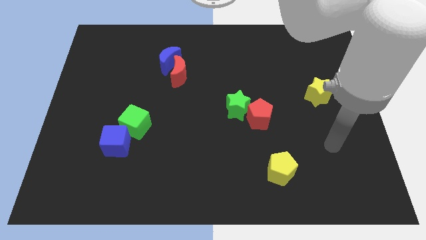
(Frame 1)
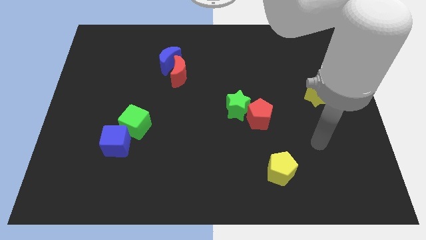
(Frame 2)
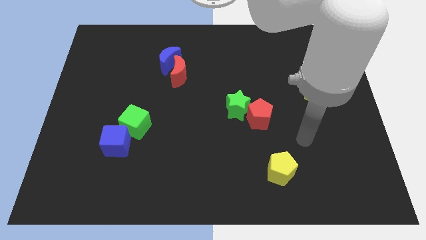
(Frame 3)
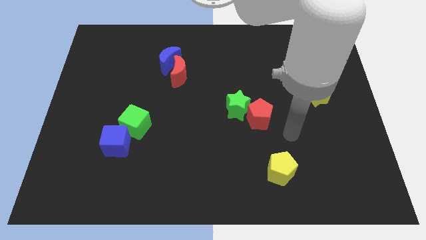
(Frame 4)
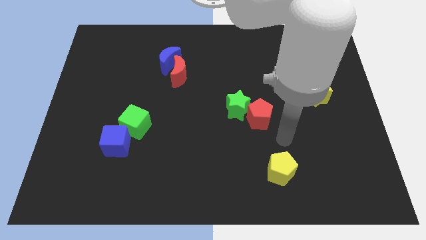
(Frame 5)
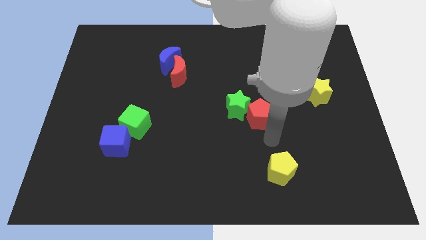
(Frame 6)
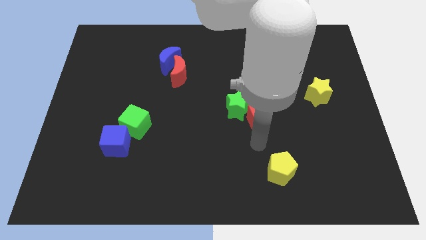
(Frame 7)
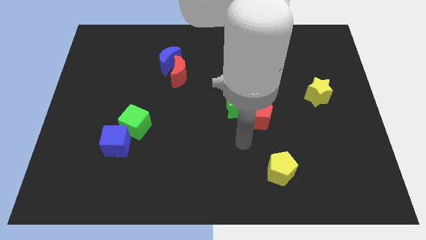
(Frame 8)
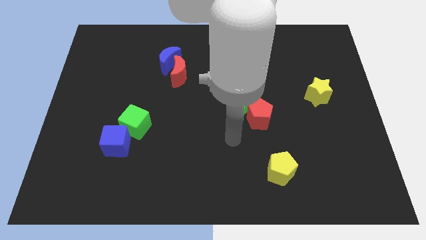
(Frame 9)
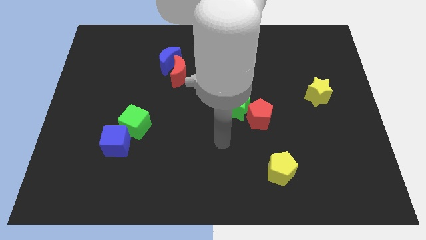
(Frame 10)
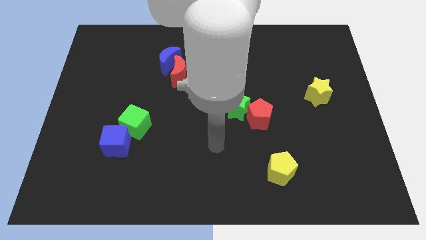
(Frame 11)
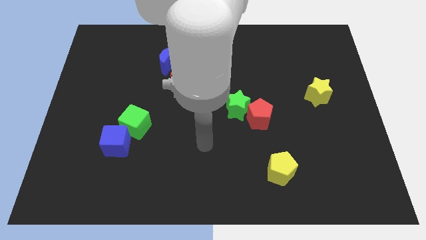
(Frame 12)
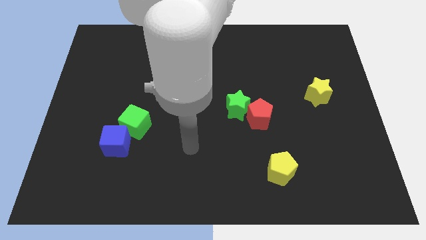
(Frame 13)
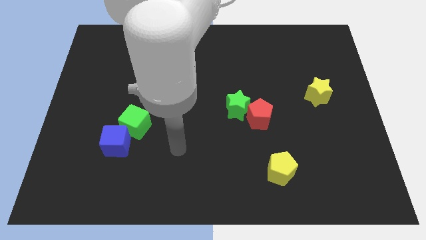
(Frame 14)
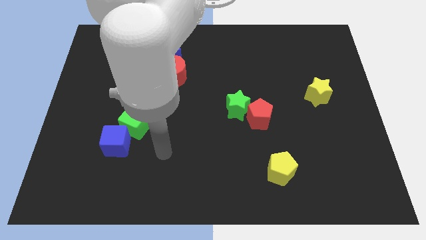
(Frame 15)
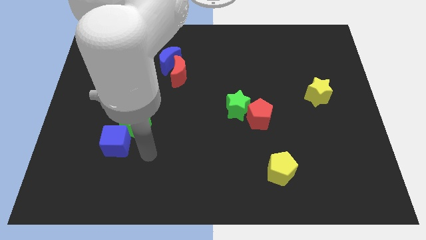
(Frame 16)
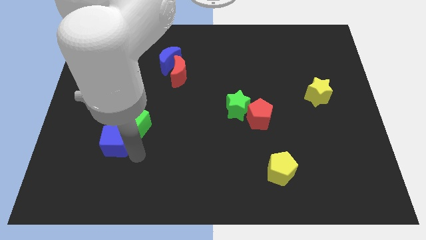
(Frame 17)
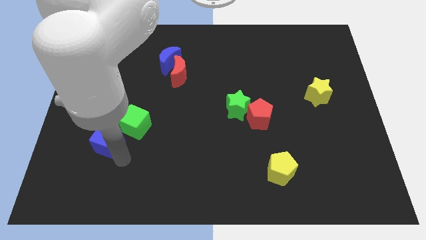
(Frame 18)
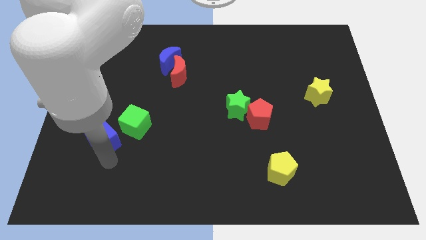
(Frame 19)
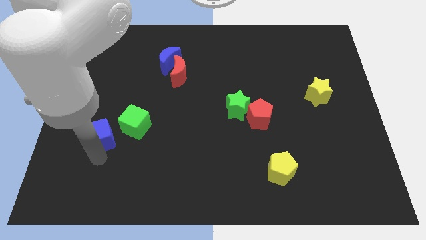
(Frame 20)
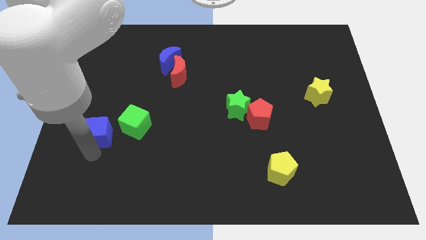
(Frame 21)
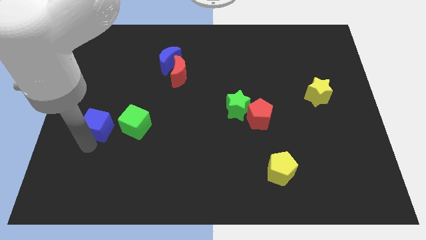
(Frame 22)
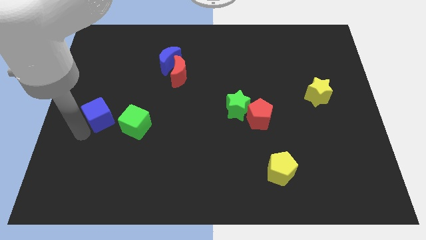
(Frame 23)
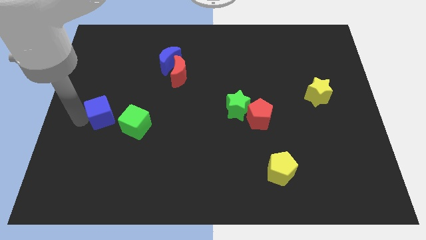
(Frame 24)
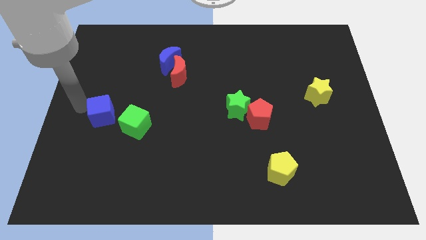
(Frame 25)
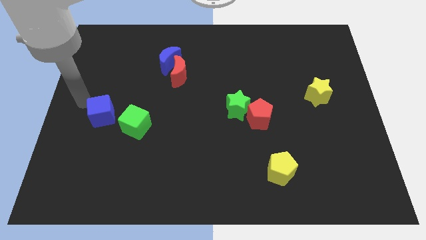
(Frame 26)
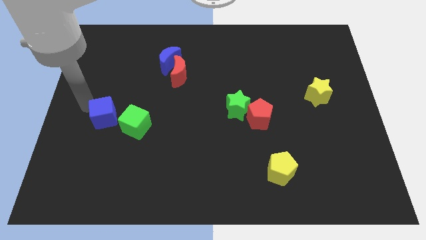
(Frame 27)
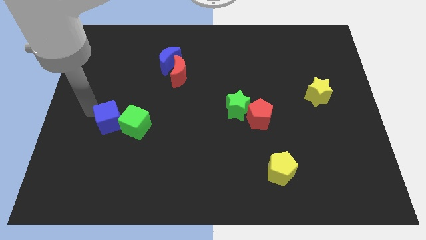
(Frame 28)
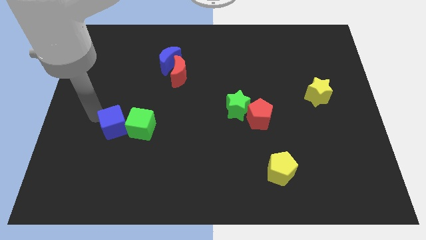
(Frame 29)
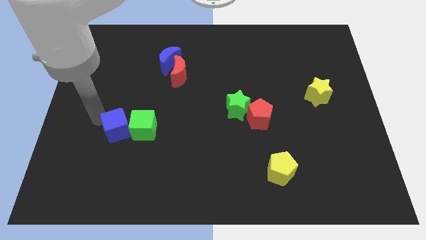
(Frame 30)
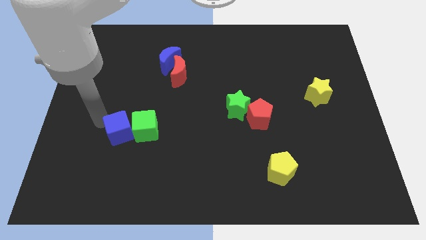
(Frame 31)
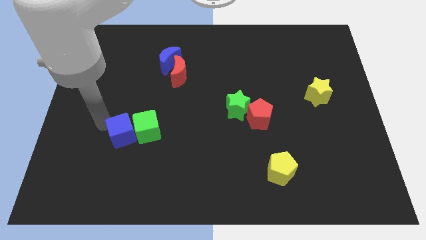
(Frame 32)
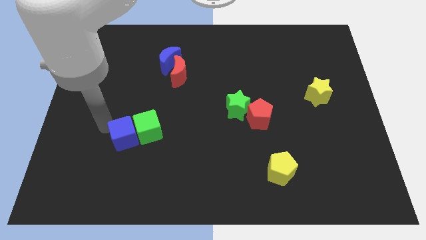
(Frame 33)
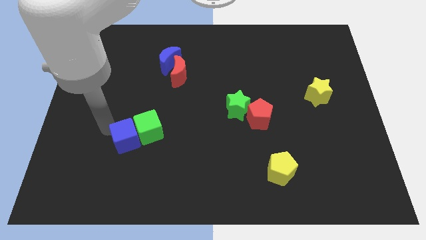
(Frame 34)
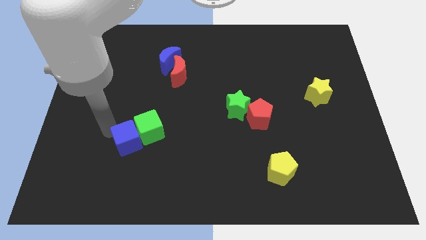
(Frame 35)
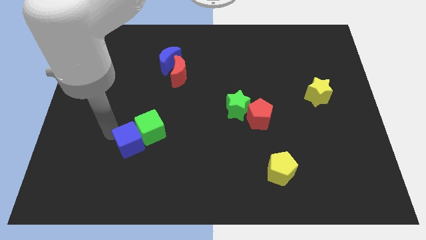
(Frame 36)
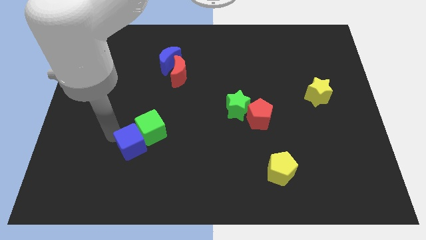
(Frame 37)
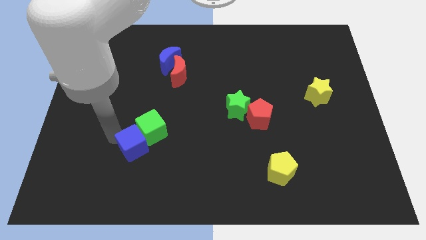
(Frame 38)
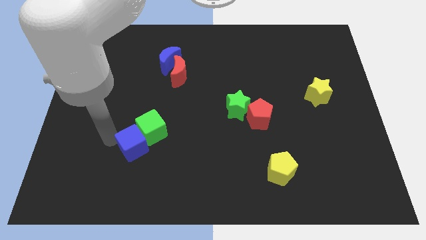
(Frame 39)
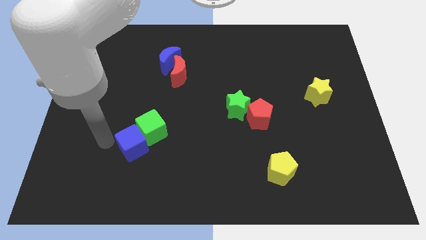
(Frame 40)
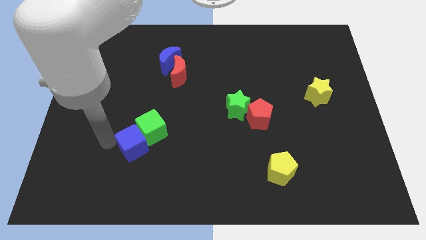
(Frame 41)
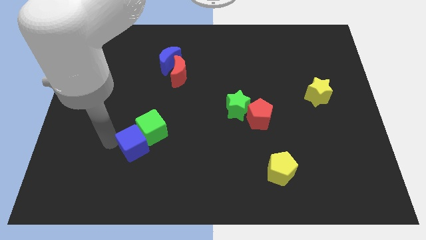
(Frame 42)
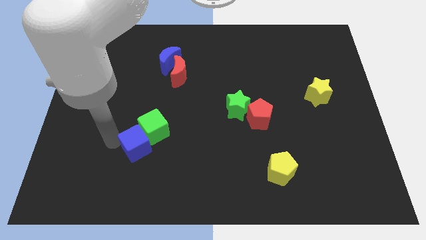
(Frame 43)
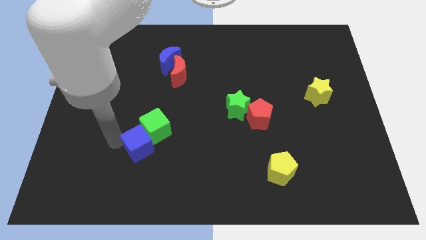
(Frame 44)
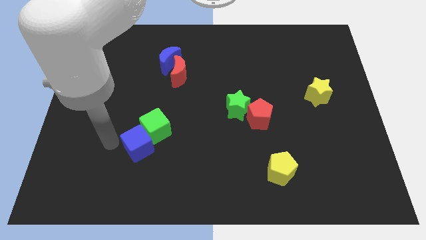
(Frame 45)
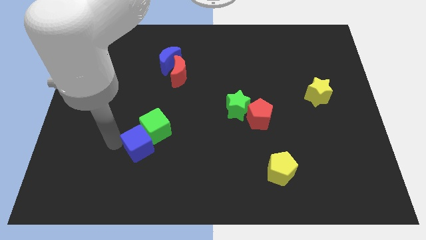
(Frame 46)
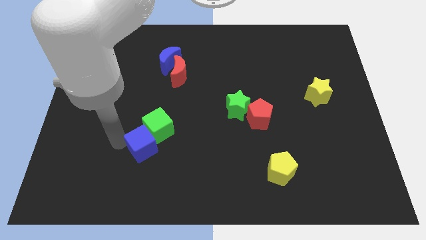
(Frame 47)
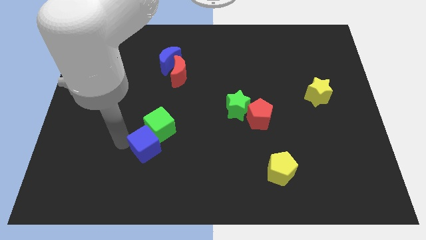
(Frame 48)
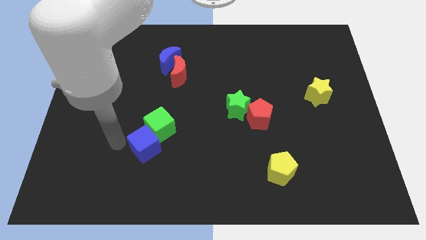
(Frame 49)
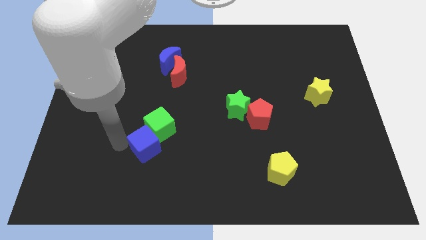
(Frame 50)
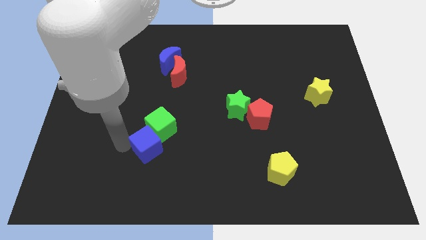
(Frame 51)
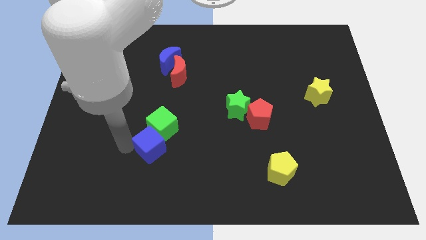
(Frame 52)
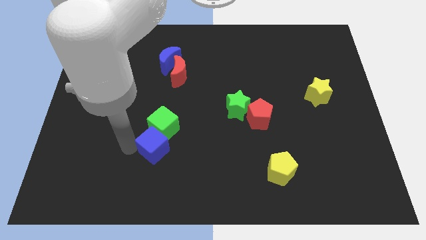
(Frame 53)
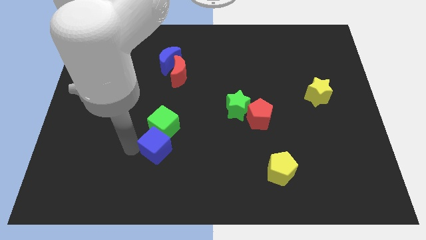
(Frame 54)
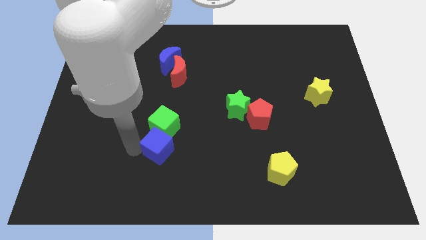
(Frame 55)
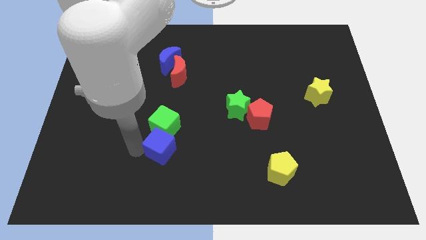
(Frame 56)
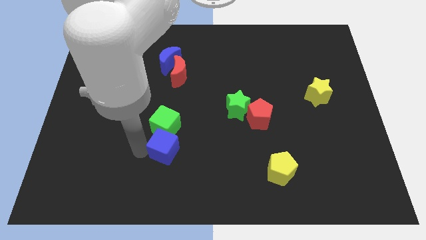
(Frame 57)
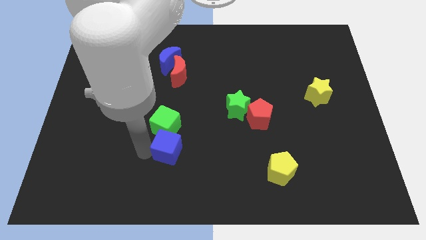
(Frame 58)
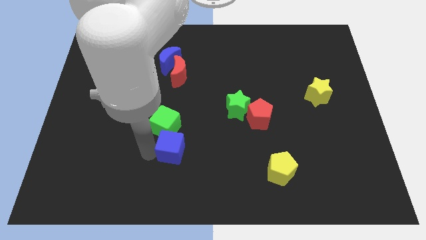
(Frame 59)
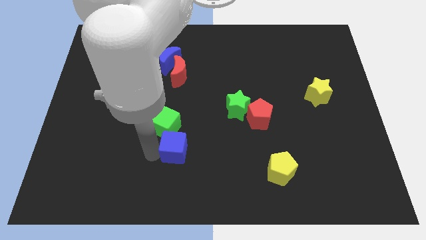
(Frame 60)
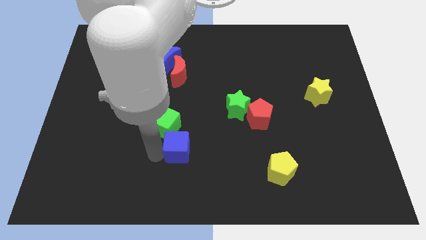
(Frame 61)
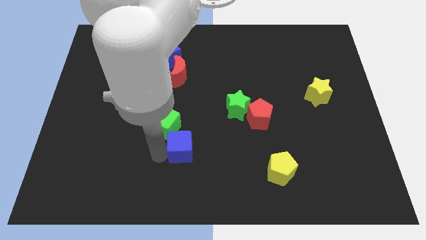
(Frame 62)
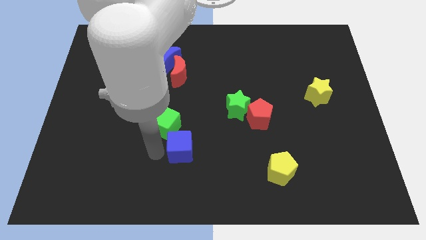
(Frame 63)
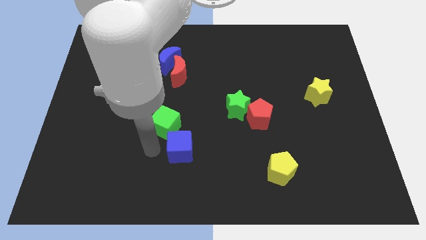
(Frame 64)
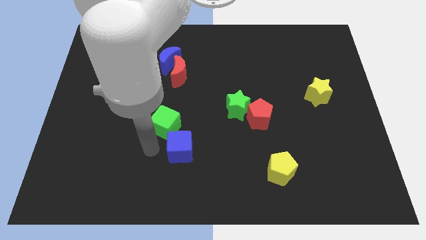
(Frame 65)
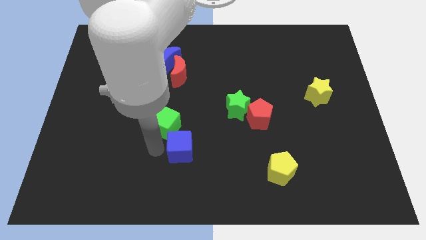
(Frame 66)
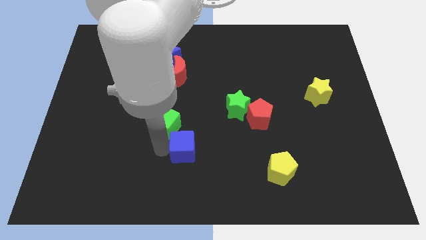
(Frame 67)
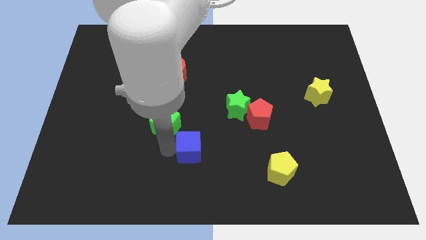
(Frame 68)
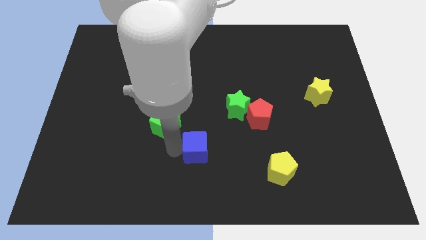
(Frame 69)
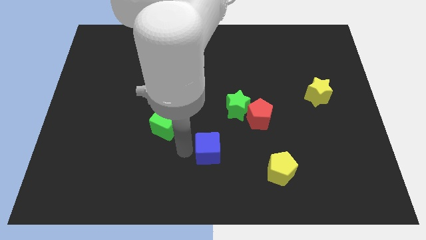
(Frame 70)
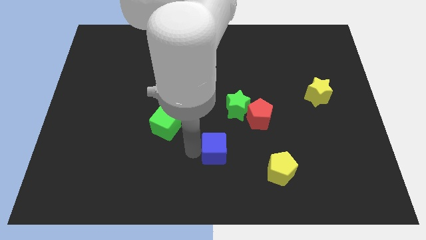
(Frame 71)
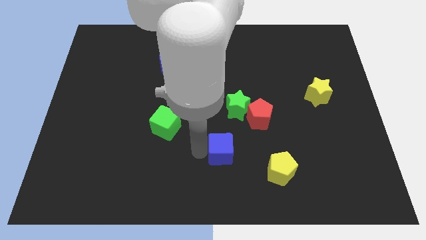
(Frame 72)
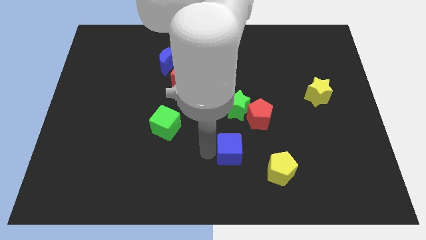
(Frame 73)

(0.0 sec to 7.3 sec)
put the blue cube diagonally up and to the left of the yellow pentagon

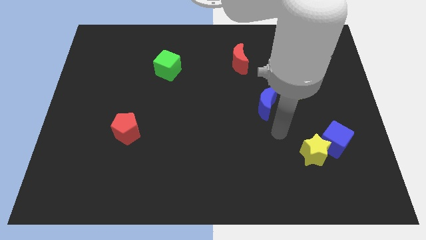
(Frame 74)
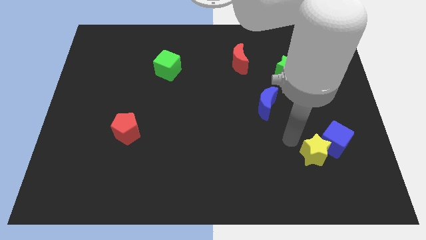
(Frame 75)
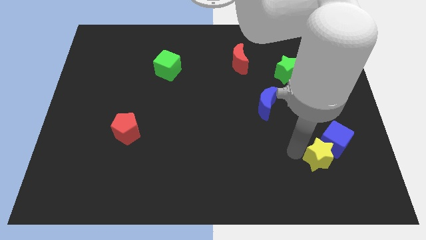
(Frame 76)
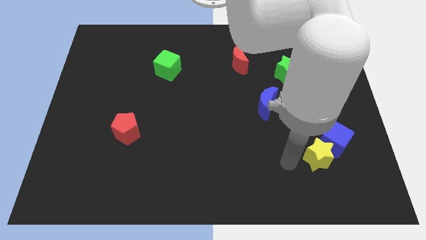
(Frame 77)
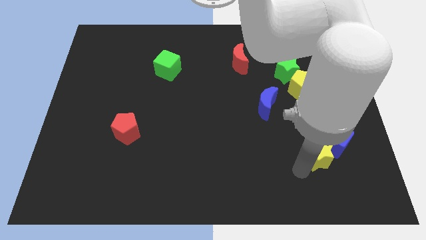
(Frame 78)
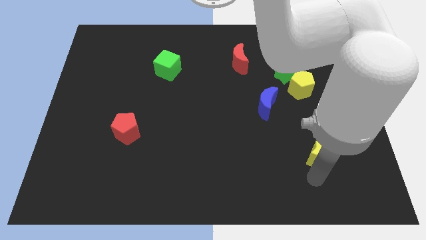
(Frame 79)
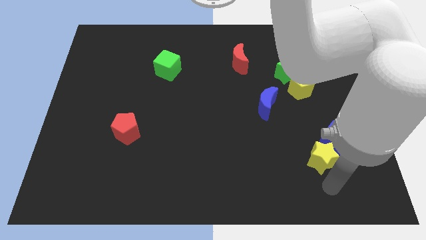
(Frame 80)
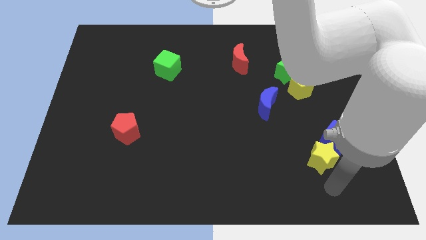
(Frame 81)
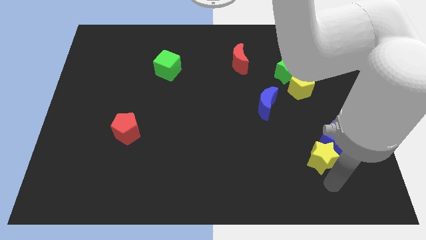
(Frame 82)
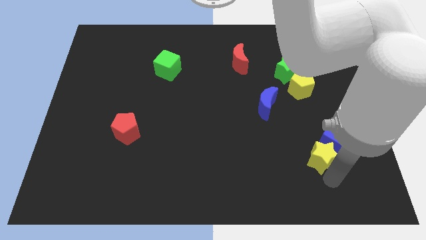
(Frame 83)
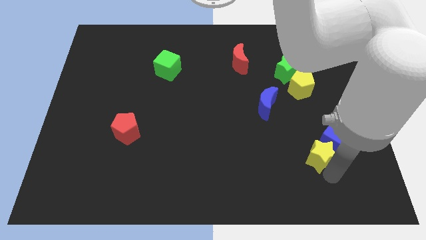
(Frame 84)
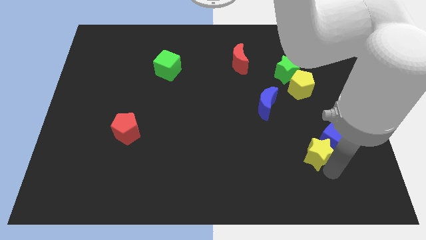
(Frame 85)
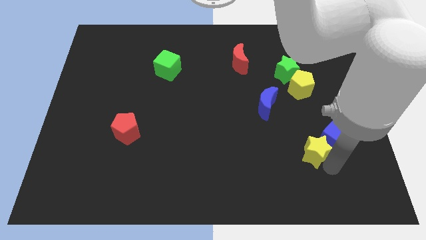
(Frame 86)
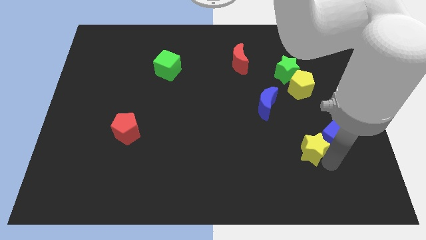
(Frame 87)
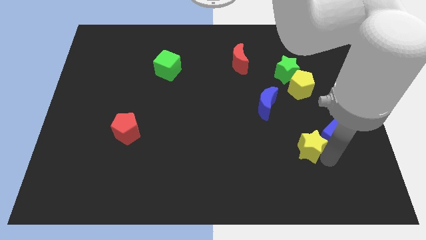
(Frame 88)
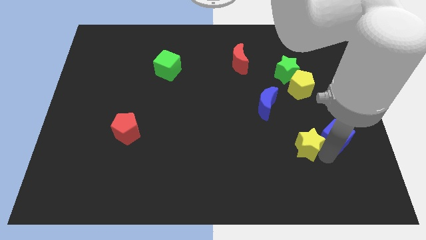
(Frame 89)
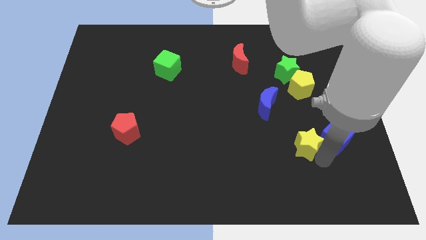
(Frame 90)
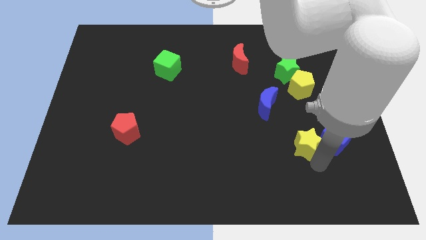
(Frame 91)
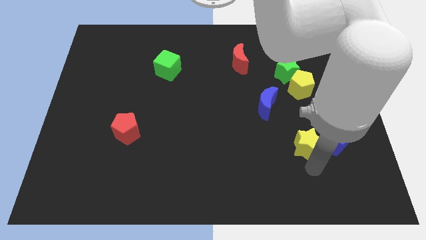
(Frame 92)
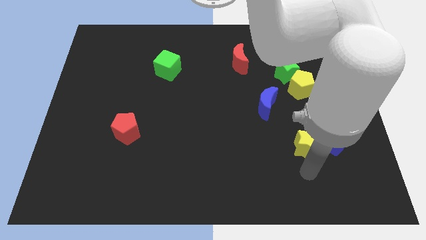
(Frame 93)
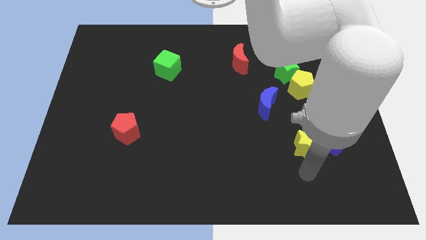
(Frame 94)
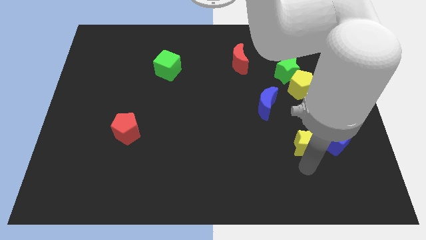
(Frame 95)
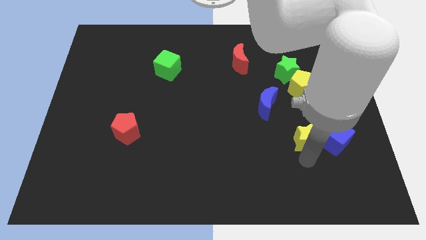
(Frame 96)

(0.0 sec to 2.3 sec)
put the yellow star diagonally up and to the left of the blue cube
